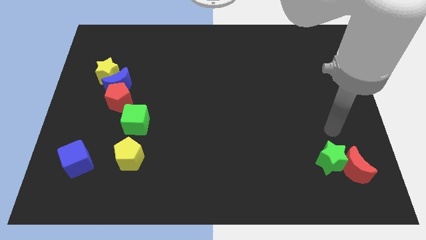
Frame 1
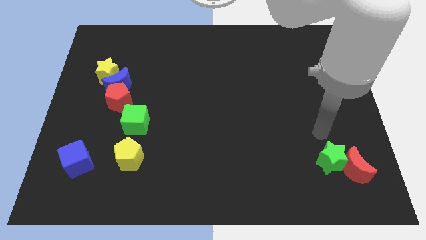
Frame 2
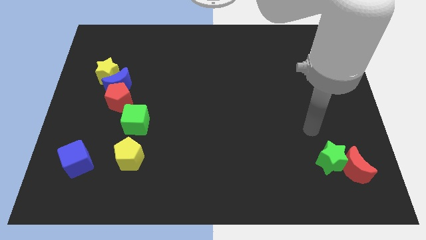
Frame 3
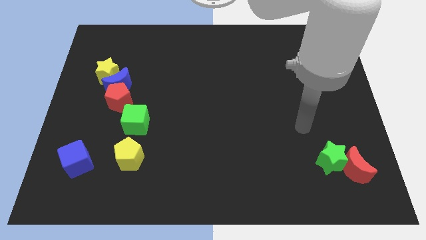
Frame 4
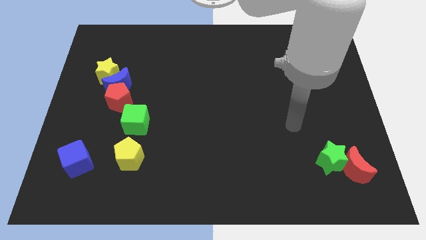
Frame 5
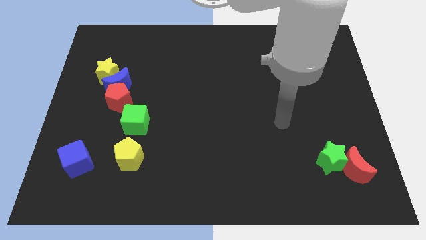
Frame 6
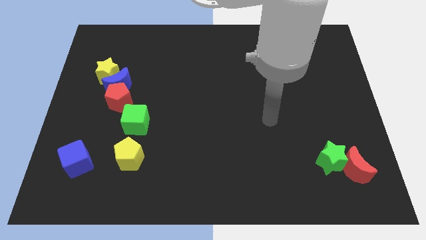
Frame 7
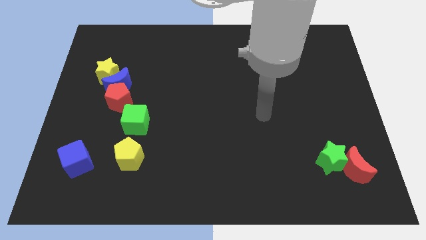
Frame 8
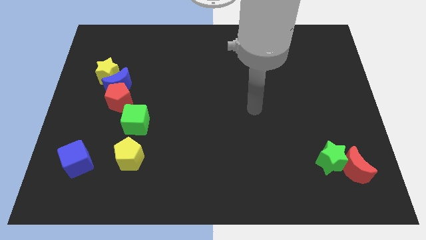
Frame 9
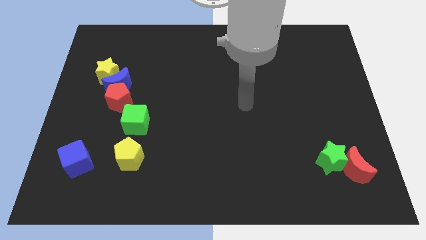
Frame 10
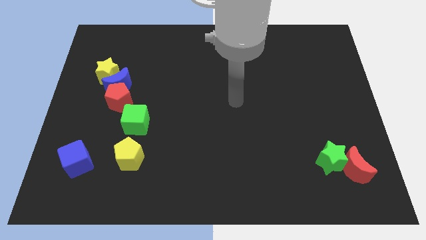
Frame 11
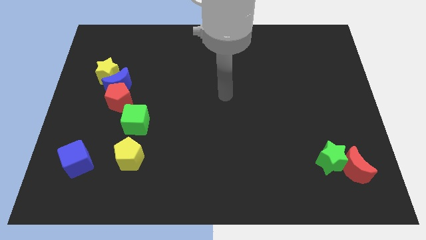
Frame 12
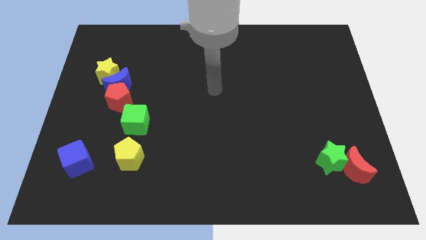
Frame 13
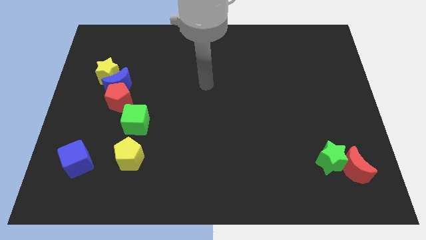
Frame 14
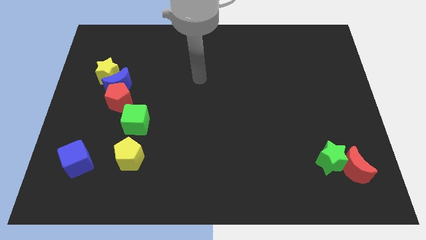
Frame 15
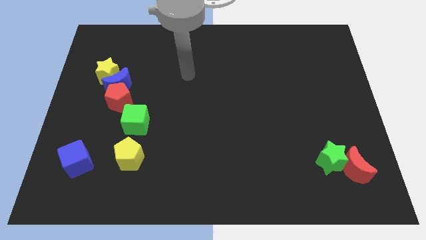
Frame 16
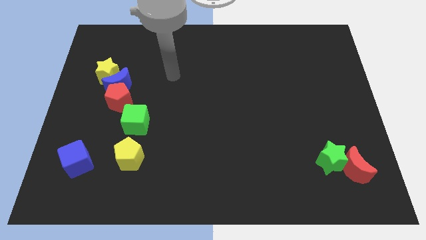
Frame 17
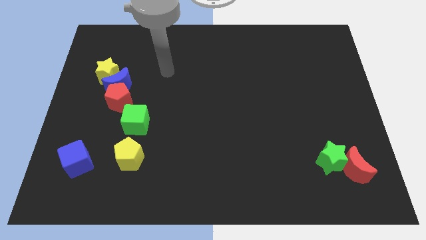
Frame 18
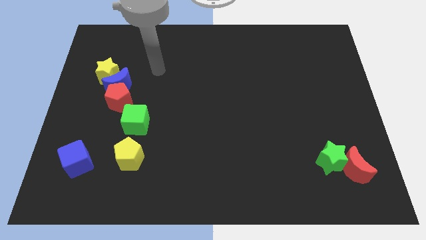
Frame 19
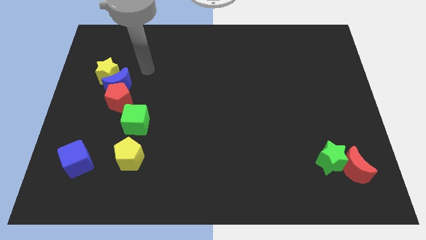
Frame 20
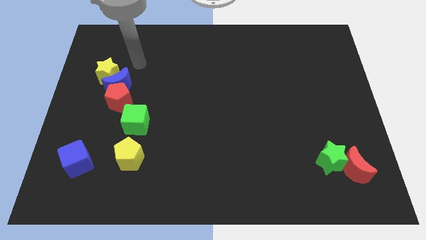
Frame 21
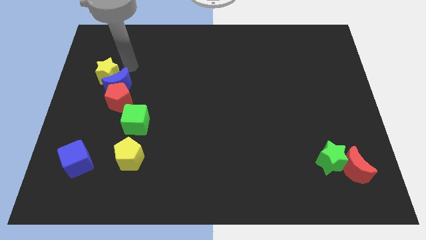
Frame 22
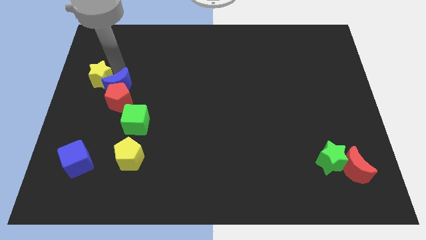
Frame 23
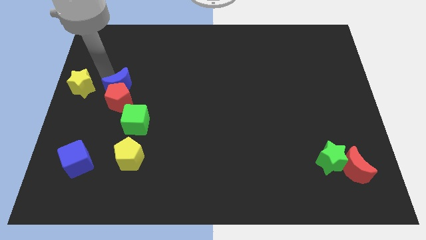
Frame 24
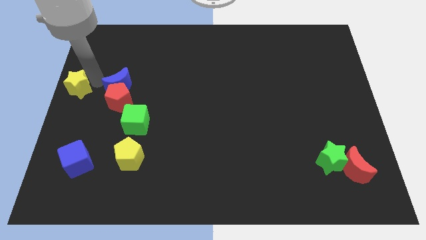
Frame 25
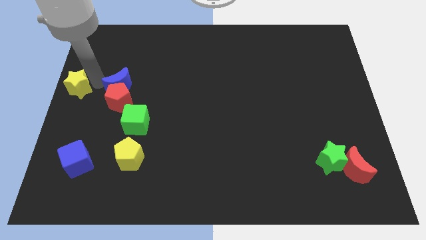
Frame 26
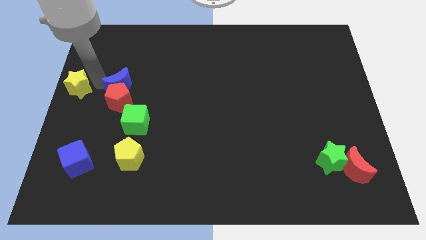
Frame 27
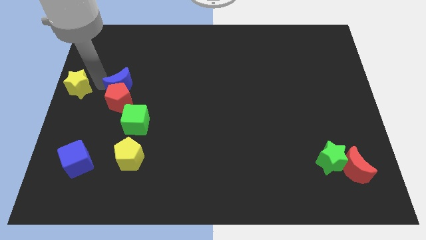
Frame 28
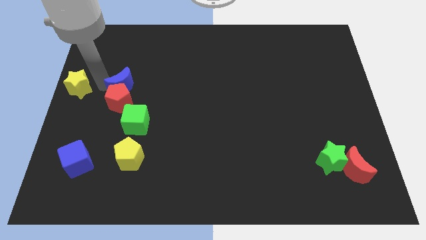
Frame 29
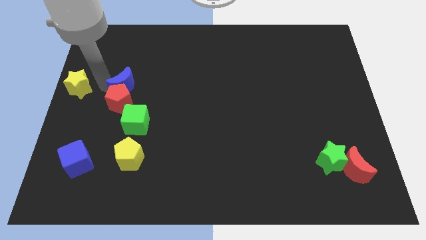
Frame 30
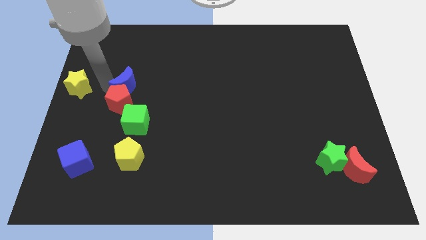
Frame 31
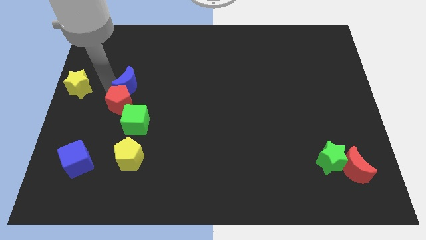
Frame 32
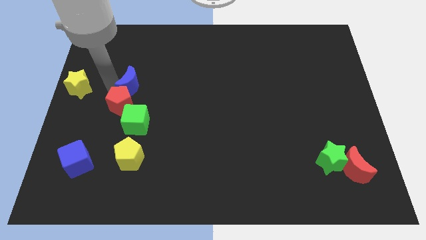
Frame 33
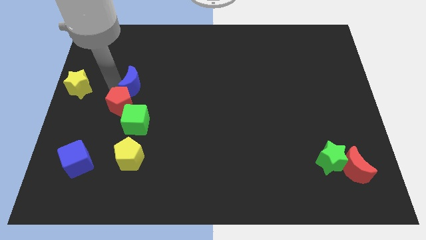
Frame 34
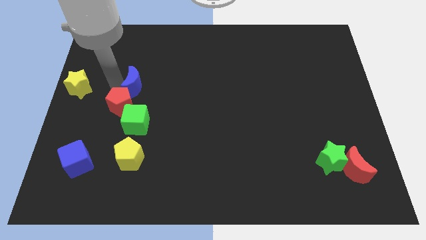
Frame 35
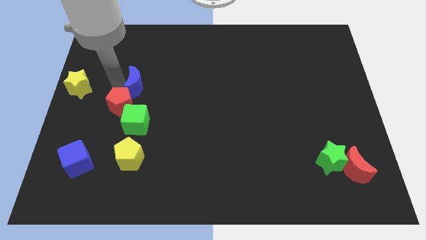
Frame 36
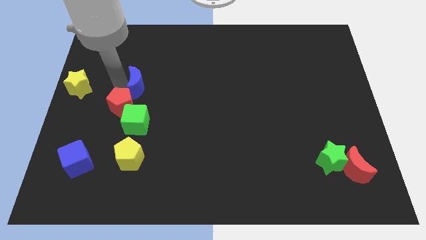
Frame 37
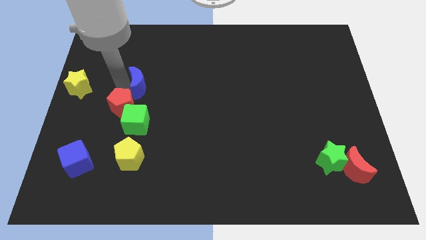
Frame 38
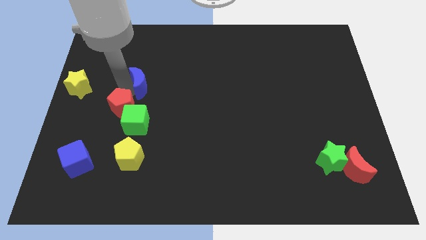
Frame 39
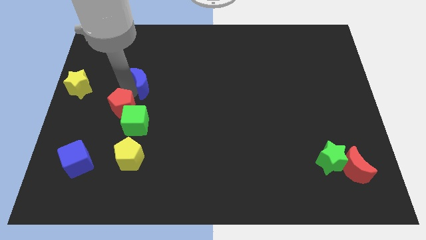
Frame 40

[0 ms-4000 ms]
separate the blue moon from the red pentagon and yellow star

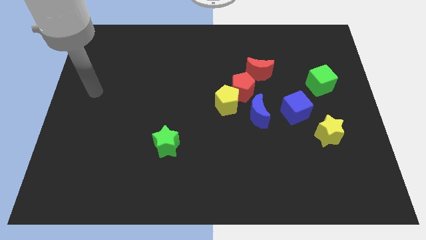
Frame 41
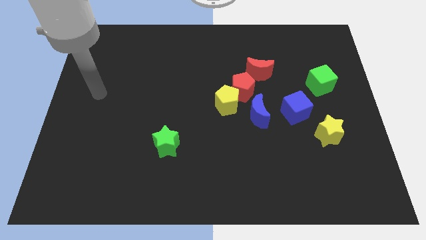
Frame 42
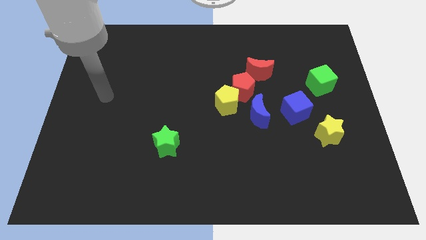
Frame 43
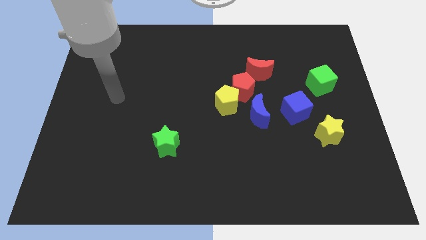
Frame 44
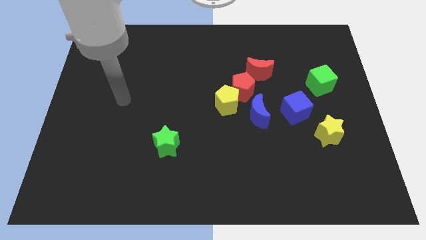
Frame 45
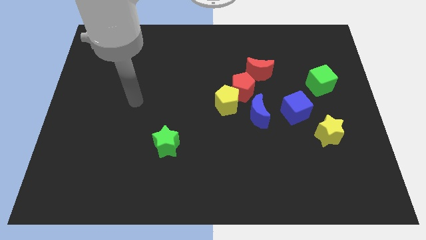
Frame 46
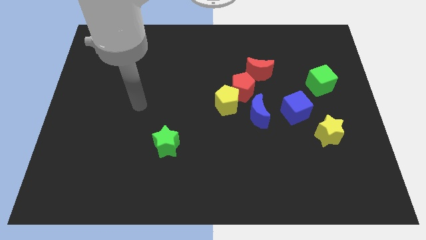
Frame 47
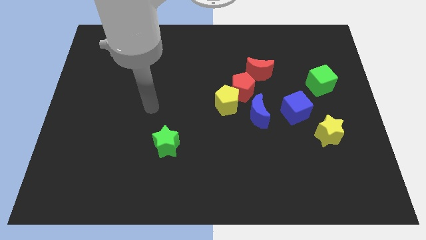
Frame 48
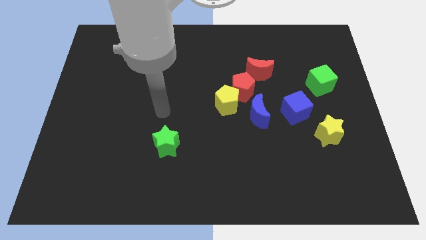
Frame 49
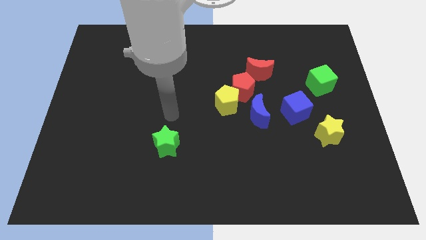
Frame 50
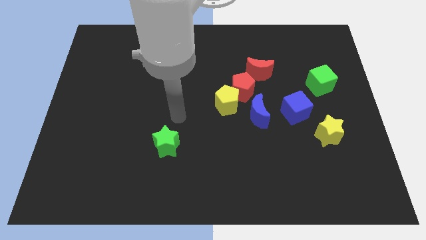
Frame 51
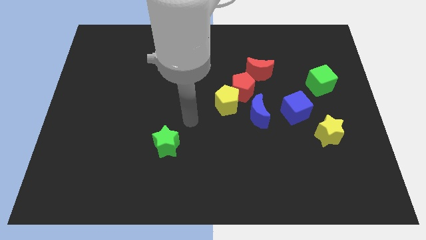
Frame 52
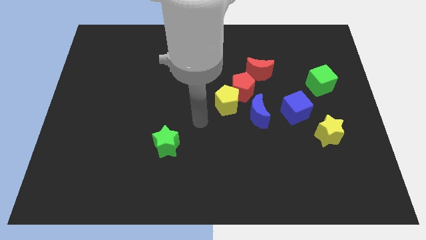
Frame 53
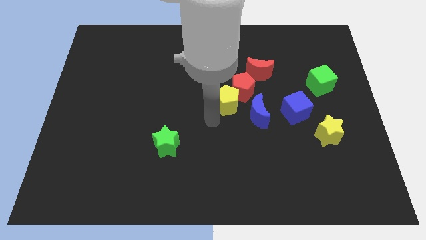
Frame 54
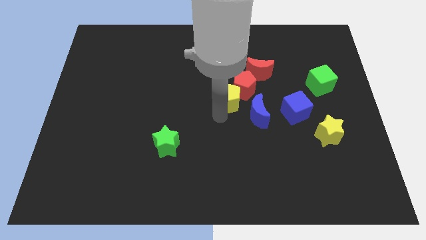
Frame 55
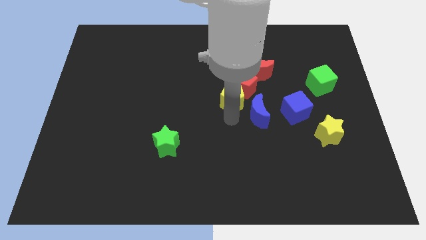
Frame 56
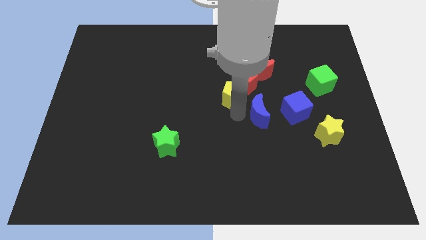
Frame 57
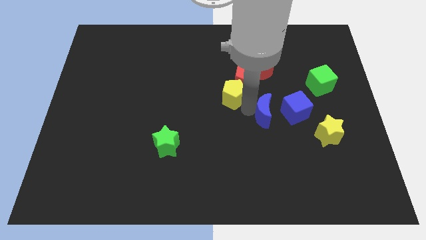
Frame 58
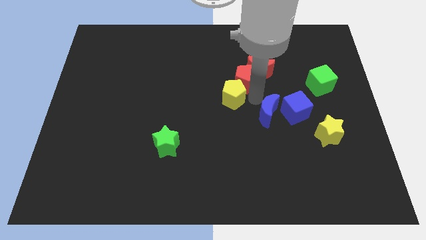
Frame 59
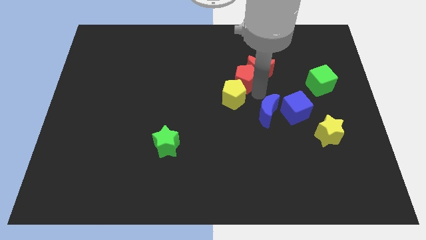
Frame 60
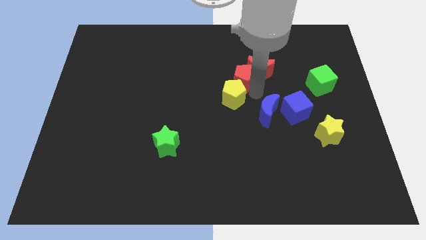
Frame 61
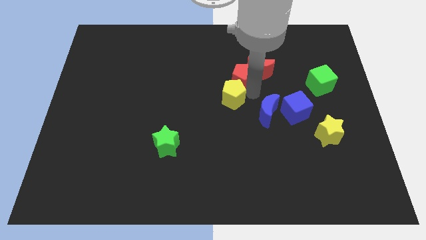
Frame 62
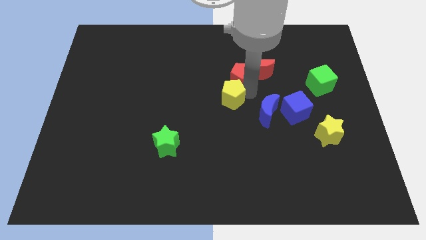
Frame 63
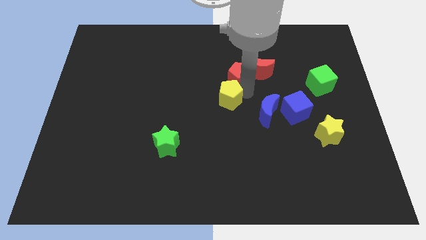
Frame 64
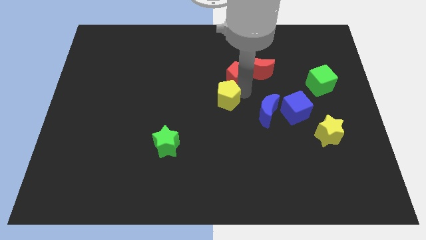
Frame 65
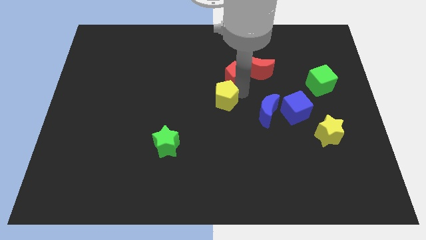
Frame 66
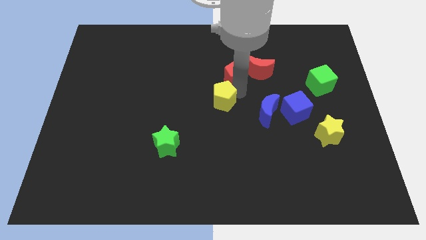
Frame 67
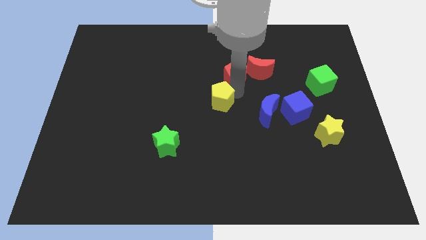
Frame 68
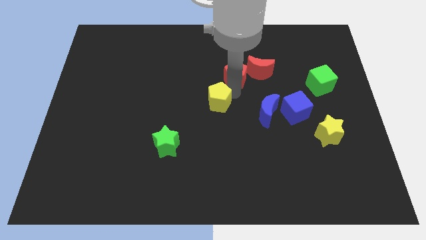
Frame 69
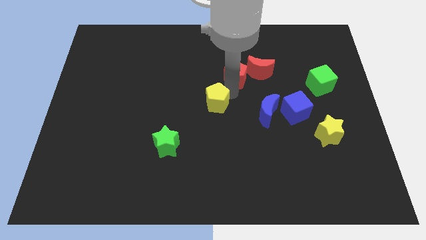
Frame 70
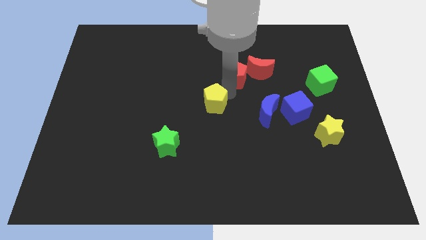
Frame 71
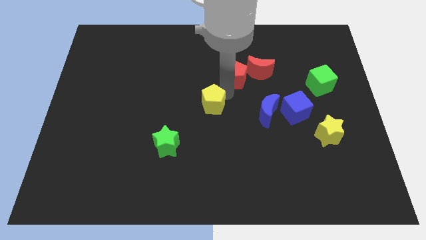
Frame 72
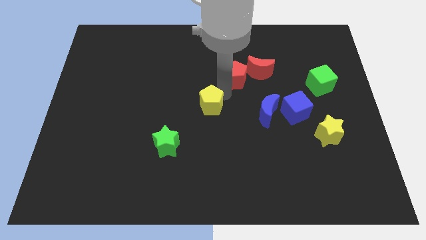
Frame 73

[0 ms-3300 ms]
pull the yellow pentagon apart from the red pentagon and blue moon

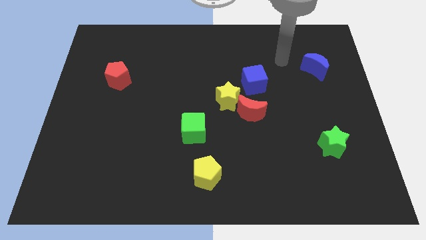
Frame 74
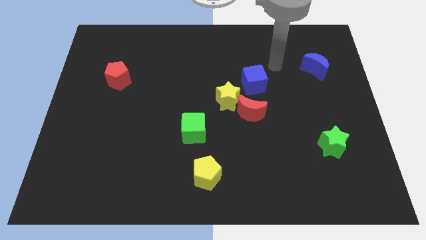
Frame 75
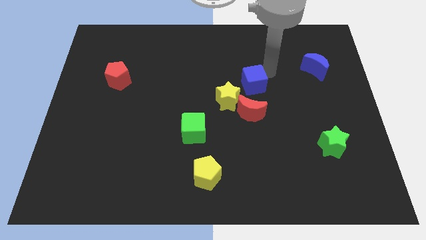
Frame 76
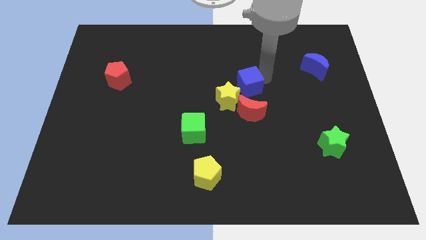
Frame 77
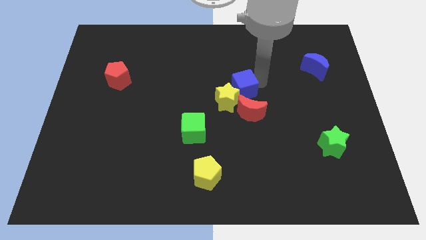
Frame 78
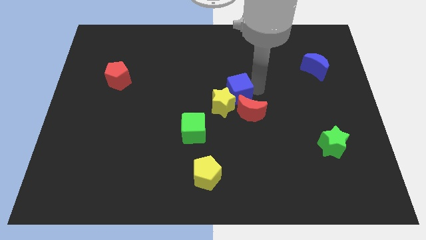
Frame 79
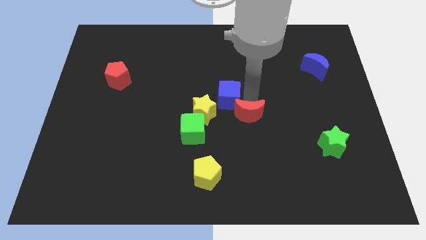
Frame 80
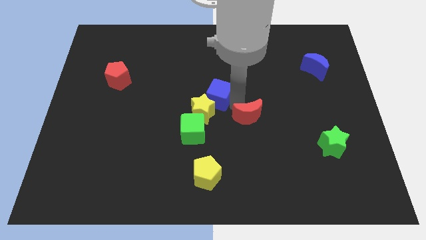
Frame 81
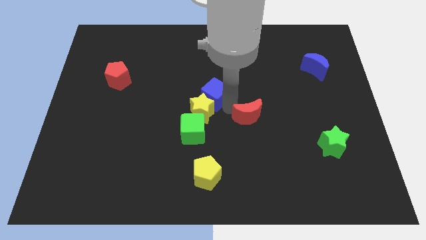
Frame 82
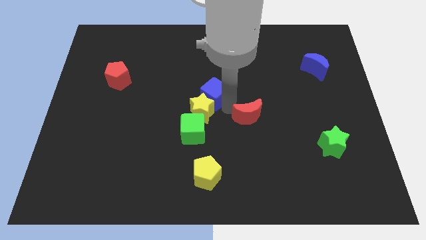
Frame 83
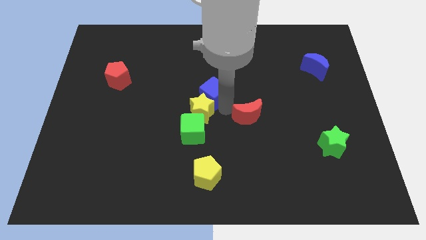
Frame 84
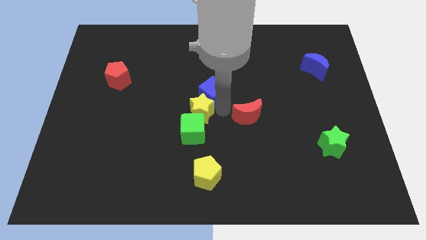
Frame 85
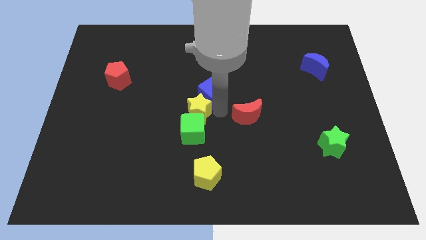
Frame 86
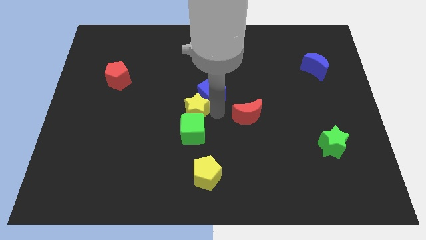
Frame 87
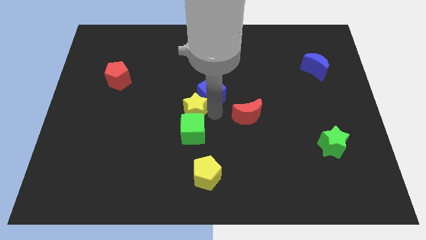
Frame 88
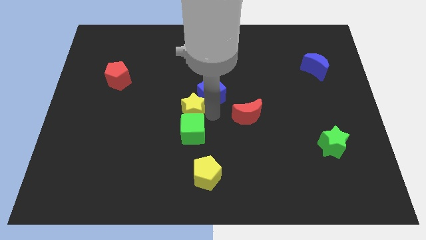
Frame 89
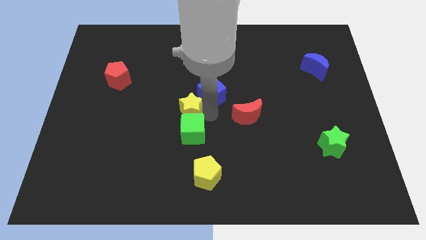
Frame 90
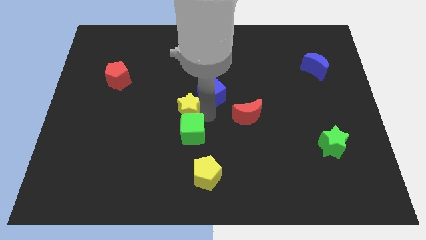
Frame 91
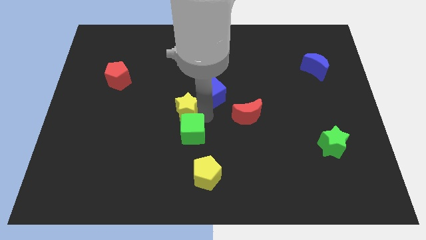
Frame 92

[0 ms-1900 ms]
move the yellow star away from the red moon and blue cube

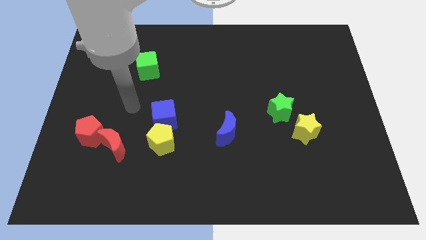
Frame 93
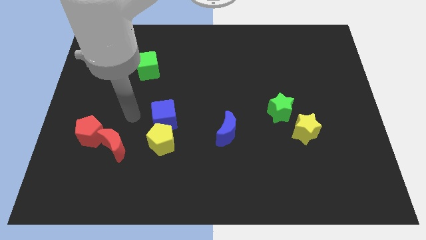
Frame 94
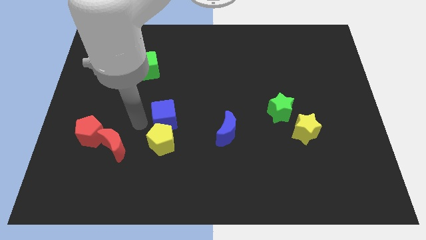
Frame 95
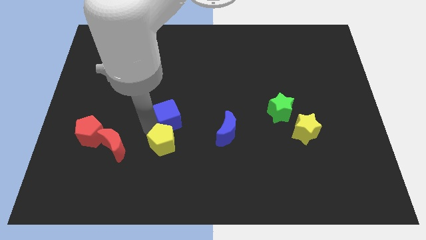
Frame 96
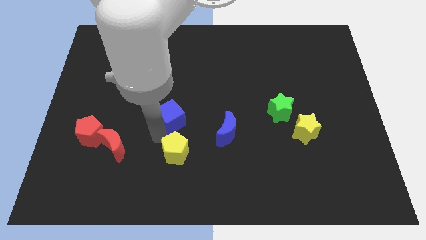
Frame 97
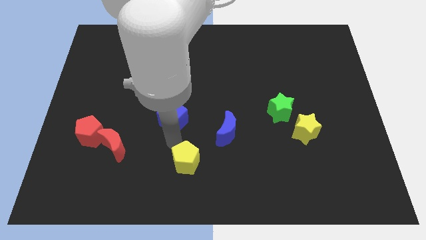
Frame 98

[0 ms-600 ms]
pull the blue cube apart from the yellow pentagon
